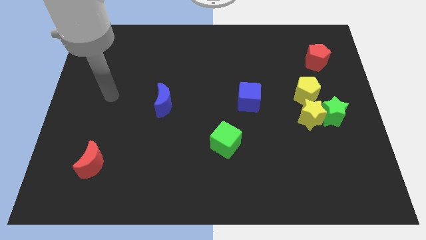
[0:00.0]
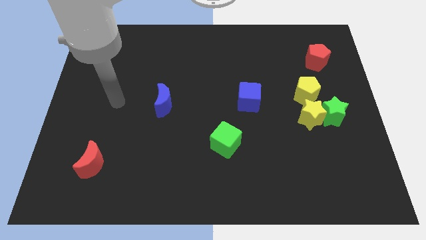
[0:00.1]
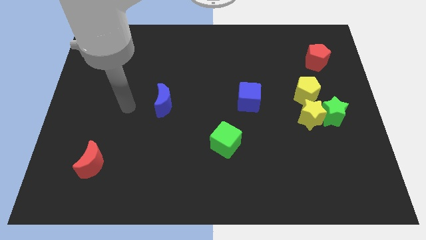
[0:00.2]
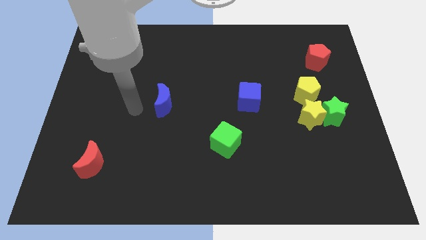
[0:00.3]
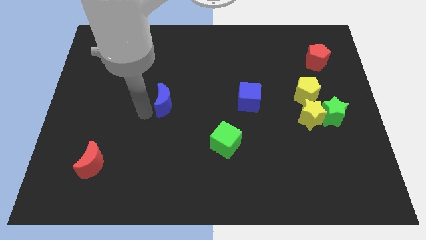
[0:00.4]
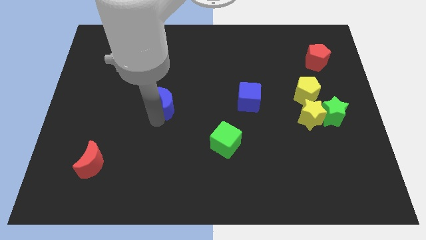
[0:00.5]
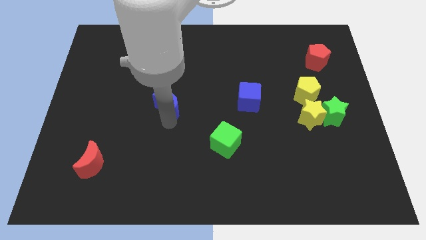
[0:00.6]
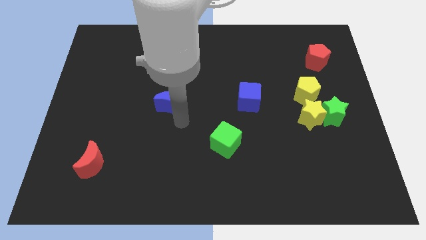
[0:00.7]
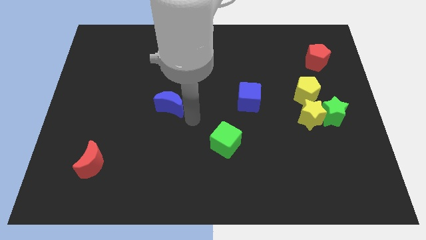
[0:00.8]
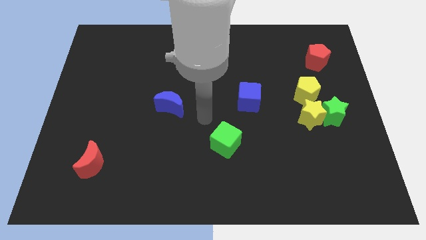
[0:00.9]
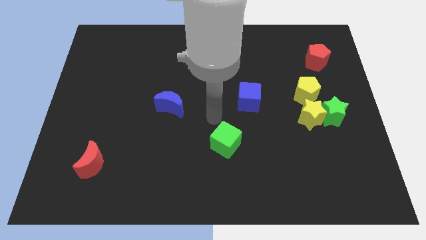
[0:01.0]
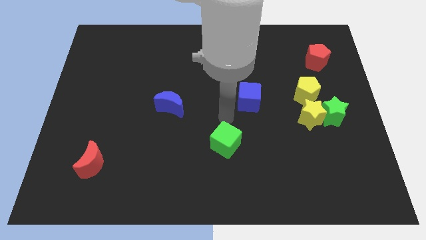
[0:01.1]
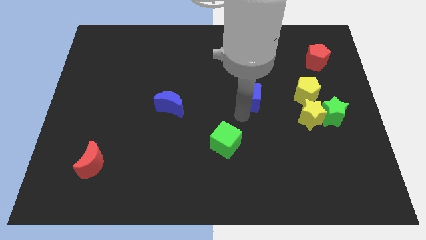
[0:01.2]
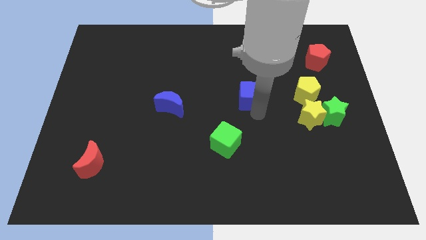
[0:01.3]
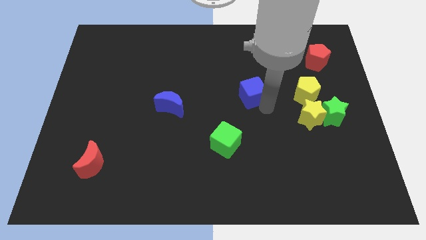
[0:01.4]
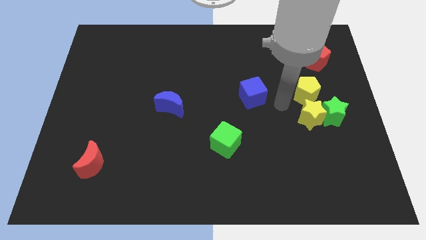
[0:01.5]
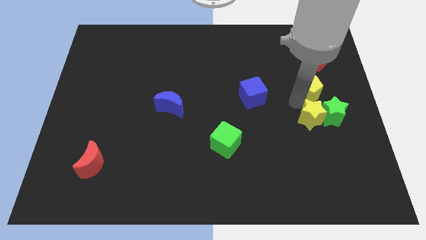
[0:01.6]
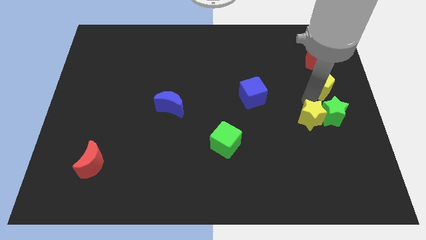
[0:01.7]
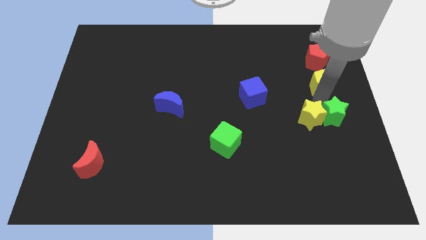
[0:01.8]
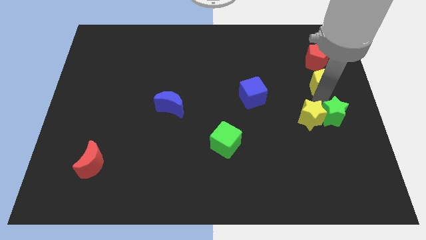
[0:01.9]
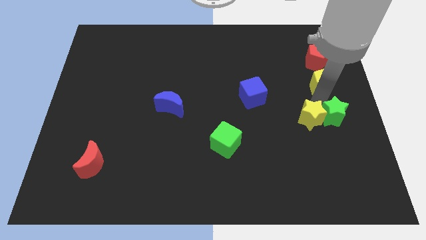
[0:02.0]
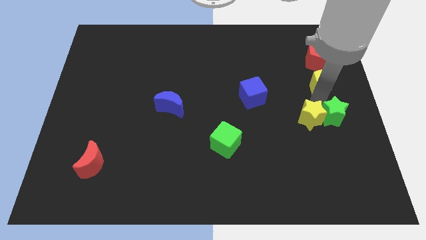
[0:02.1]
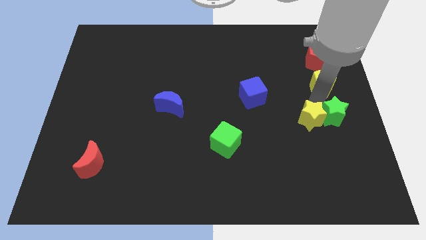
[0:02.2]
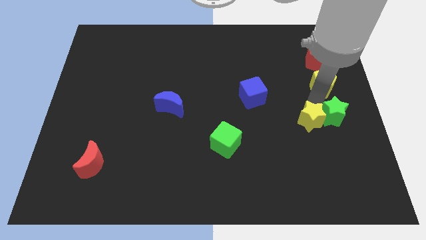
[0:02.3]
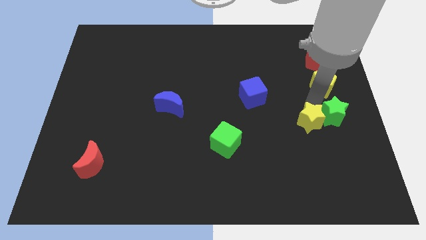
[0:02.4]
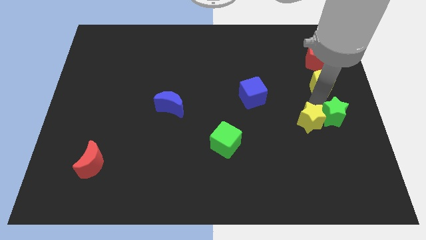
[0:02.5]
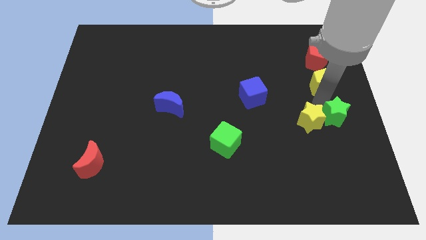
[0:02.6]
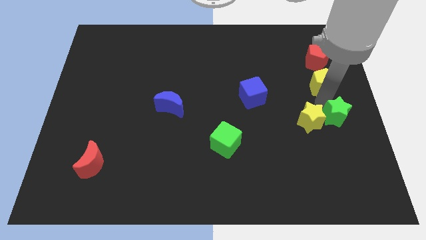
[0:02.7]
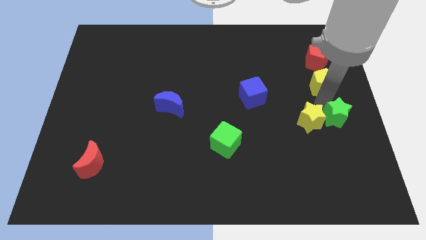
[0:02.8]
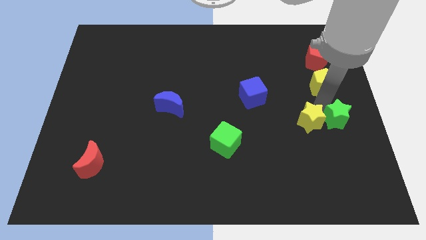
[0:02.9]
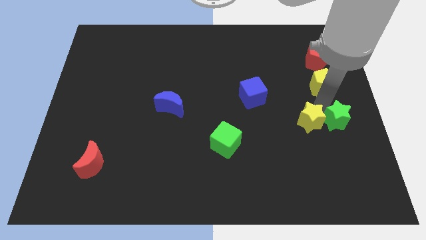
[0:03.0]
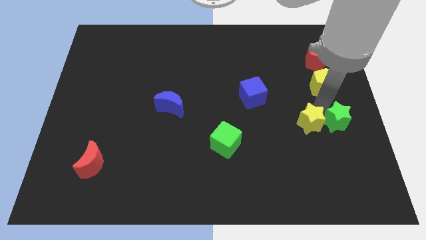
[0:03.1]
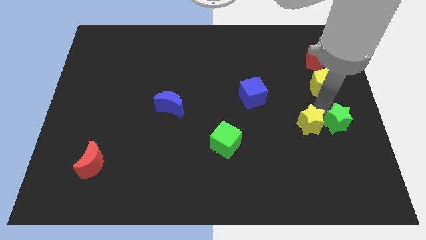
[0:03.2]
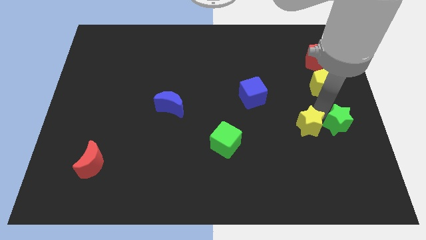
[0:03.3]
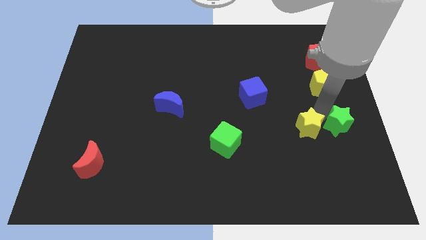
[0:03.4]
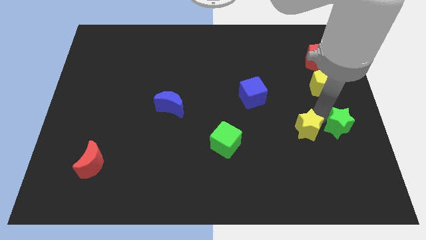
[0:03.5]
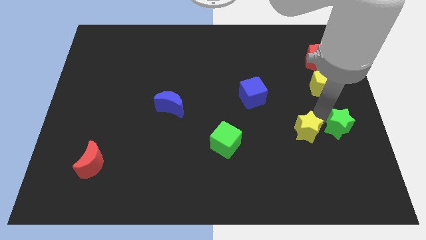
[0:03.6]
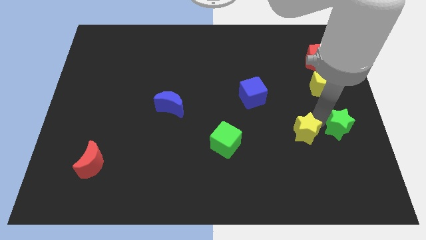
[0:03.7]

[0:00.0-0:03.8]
move the yellow star away from the green star and yellow pentagon

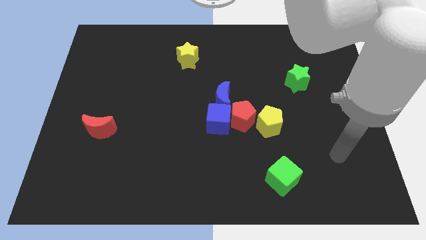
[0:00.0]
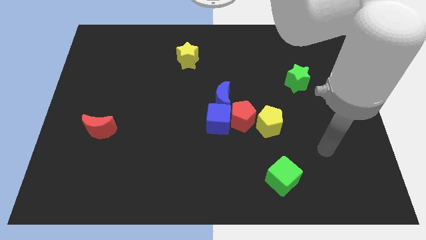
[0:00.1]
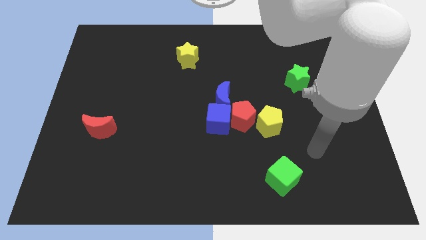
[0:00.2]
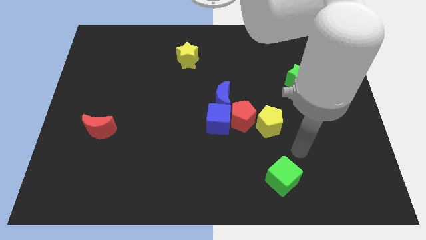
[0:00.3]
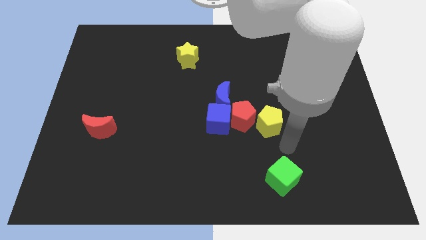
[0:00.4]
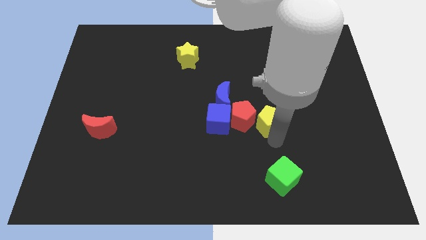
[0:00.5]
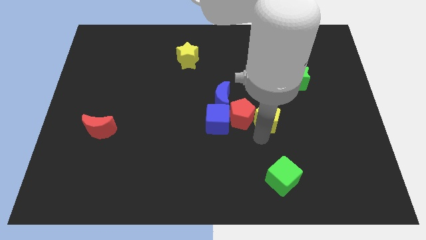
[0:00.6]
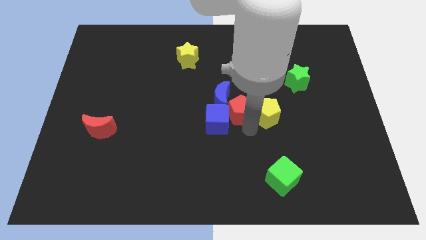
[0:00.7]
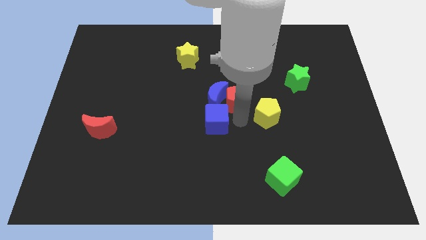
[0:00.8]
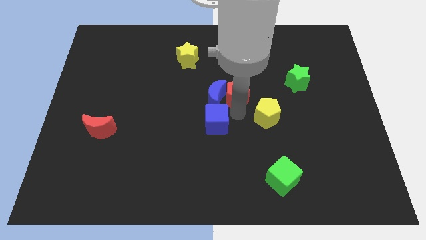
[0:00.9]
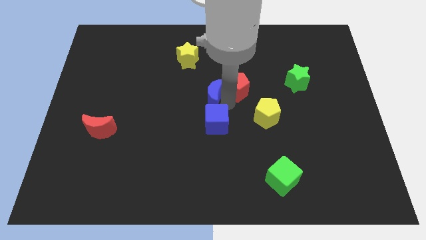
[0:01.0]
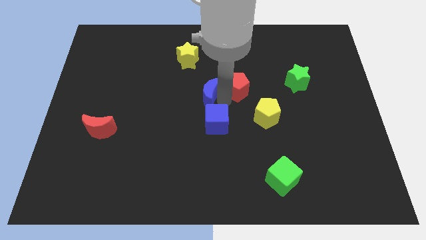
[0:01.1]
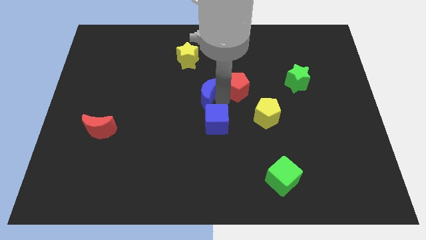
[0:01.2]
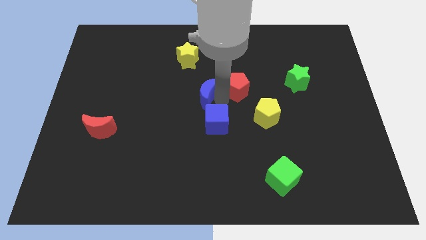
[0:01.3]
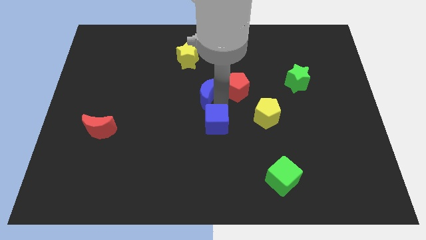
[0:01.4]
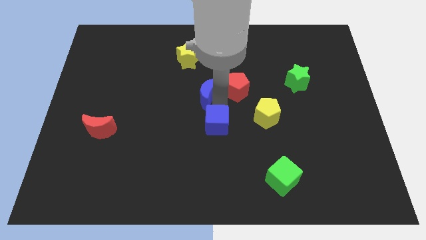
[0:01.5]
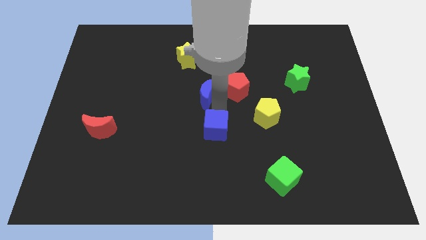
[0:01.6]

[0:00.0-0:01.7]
move the blue cube away from the red pentagon and blue moon

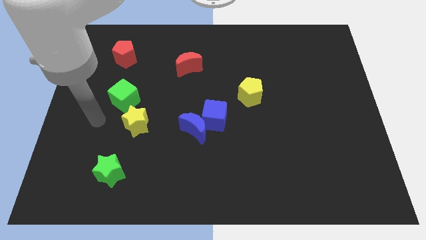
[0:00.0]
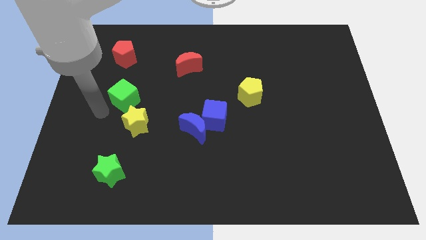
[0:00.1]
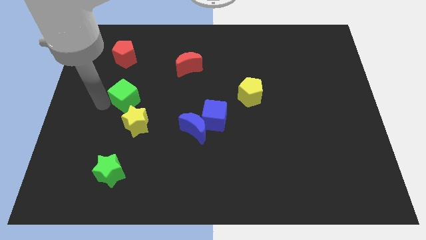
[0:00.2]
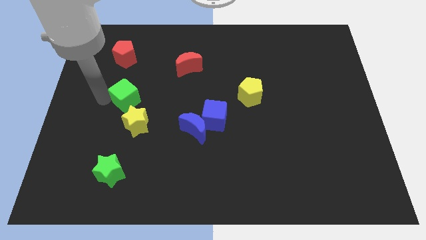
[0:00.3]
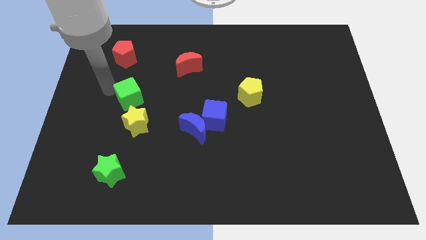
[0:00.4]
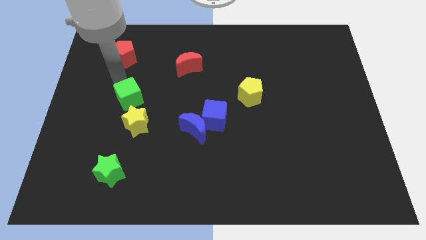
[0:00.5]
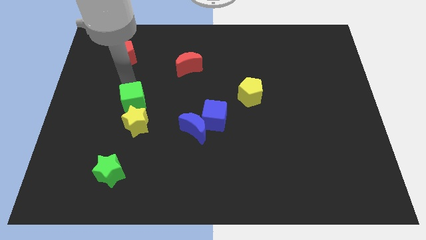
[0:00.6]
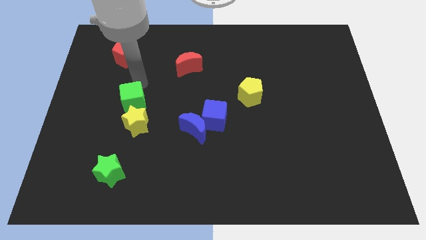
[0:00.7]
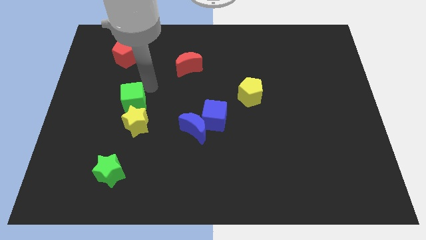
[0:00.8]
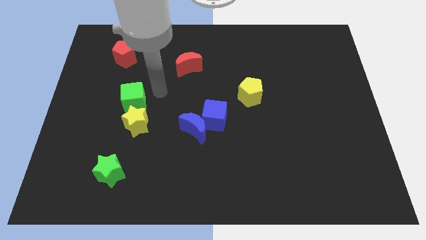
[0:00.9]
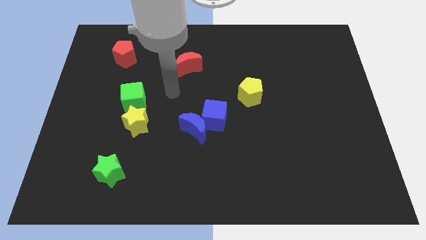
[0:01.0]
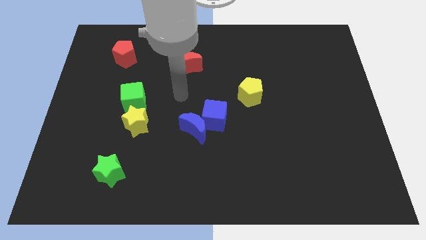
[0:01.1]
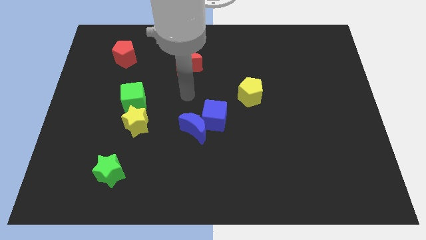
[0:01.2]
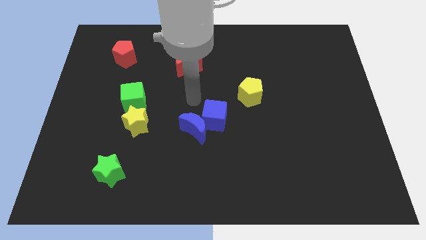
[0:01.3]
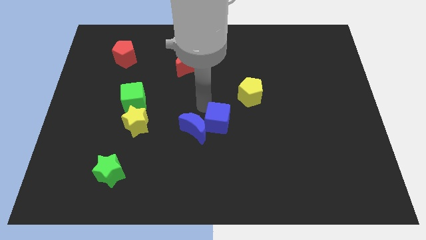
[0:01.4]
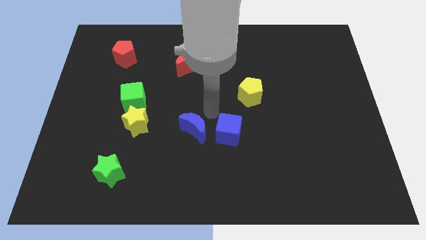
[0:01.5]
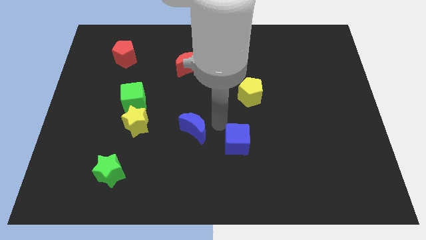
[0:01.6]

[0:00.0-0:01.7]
pull the blue moon apart from the blue cube

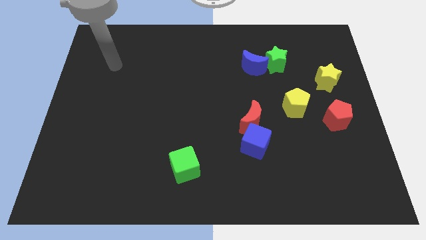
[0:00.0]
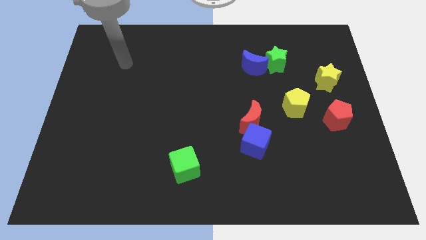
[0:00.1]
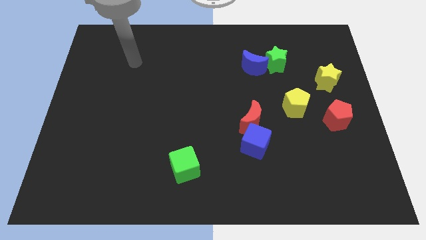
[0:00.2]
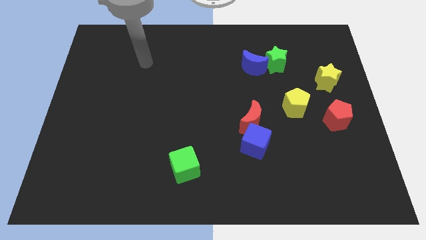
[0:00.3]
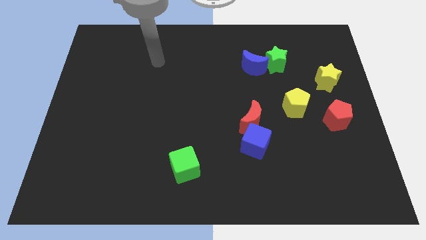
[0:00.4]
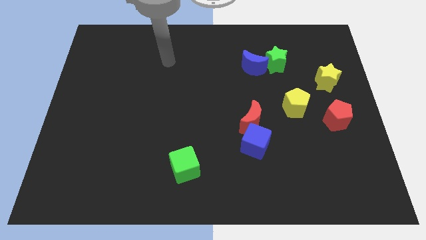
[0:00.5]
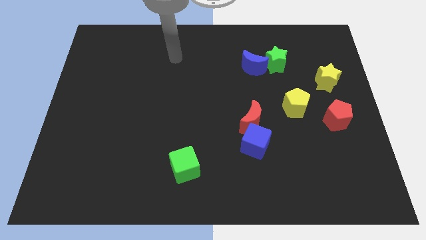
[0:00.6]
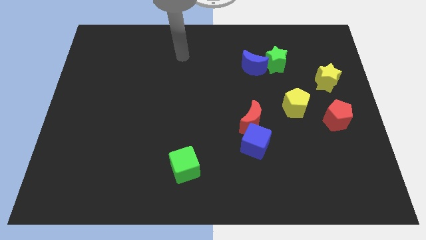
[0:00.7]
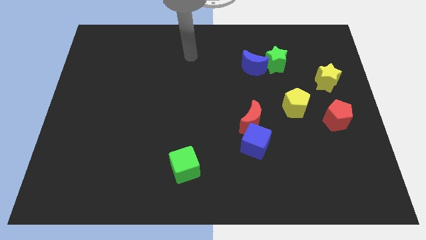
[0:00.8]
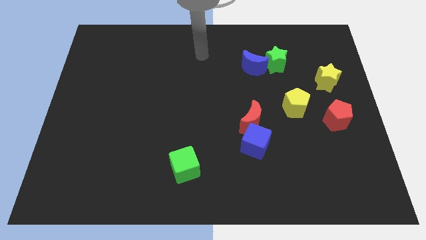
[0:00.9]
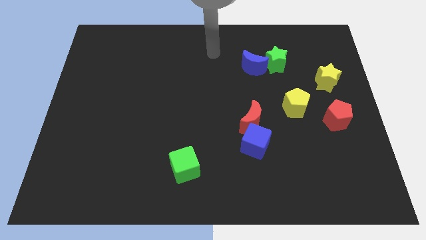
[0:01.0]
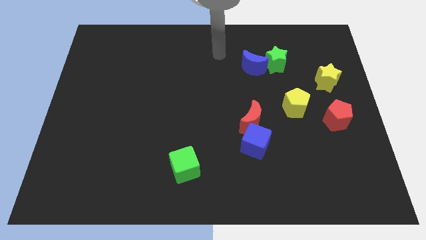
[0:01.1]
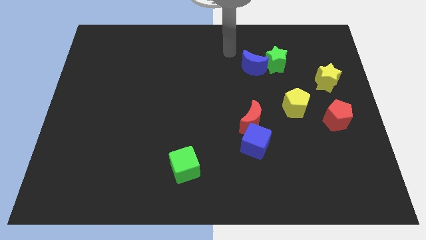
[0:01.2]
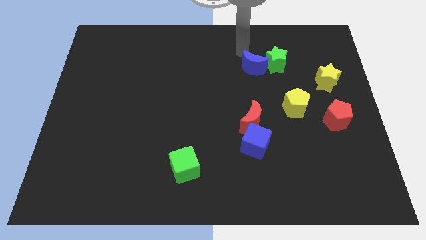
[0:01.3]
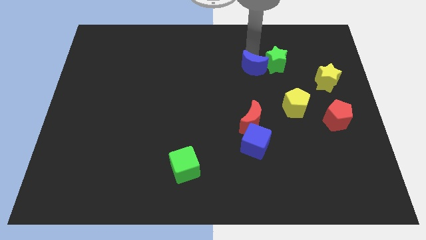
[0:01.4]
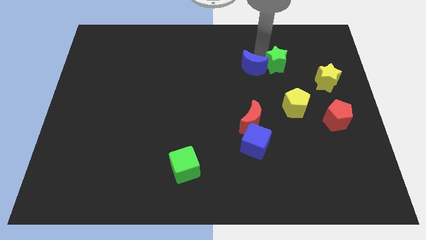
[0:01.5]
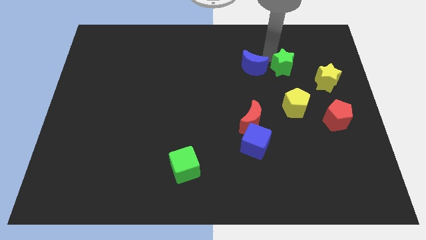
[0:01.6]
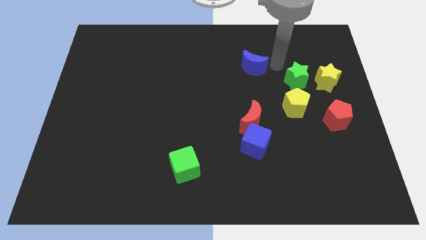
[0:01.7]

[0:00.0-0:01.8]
move the blue moon away from the green star

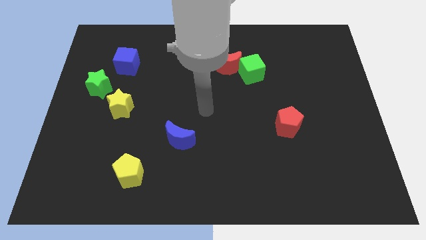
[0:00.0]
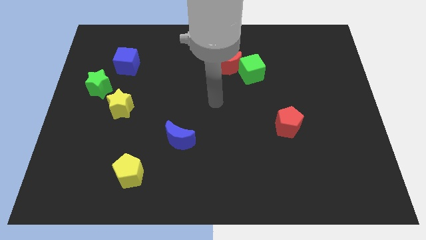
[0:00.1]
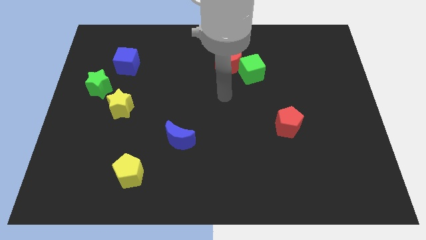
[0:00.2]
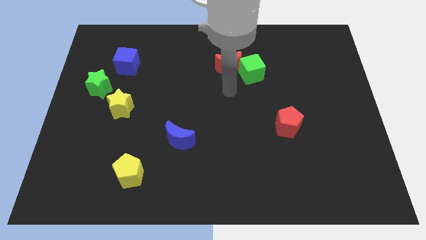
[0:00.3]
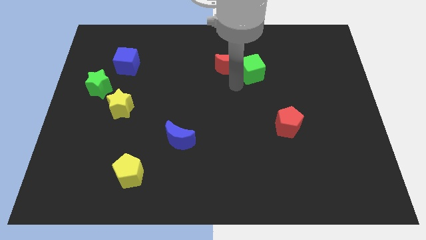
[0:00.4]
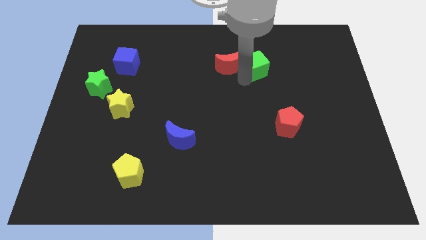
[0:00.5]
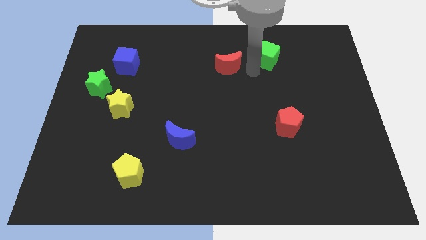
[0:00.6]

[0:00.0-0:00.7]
move the red moon away from the green cube
